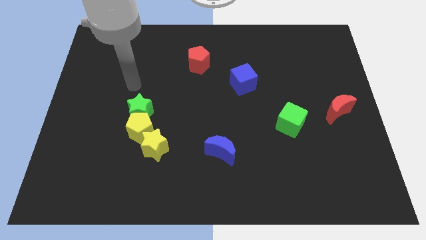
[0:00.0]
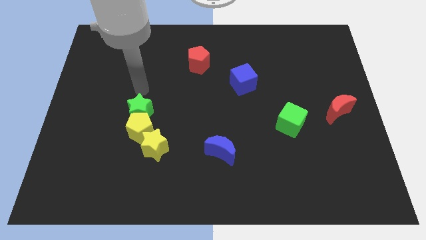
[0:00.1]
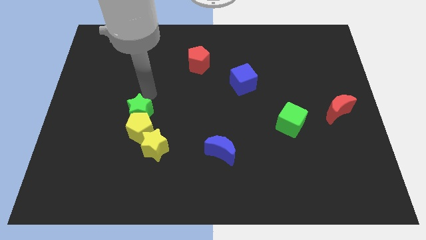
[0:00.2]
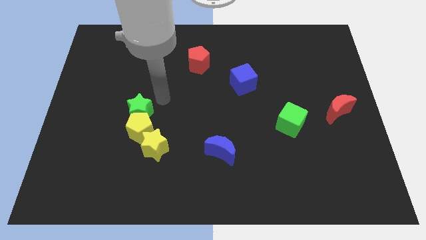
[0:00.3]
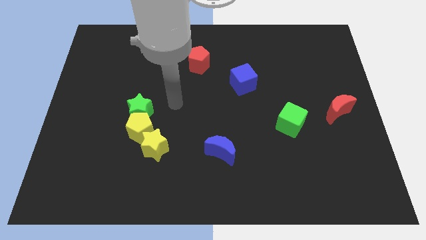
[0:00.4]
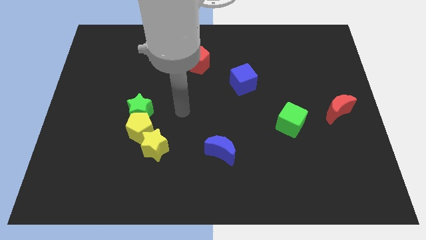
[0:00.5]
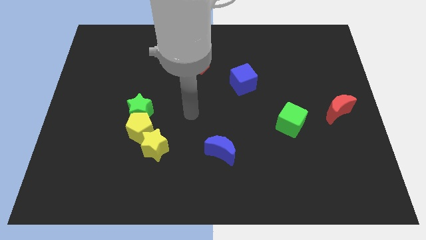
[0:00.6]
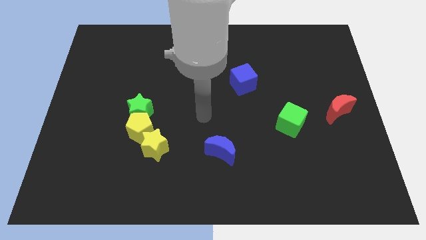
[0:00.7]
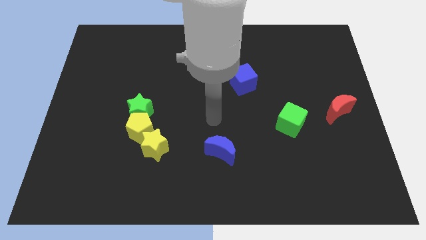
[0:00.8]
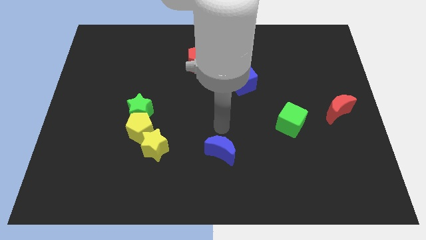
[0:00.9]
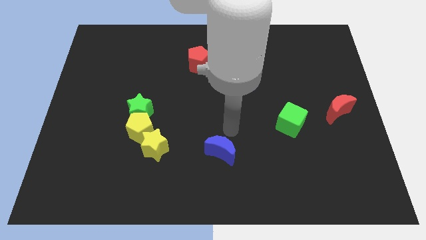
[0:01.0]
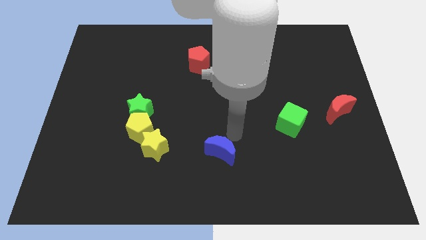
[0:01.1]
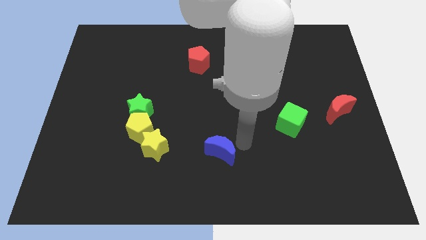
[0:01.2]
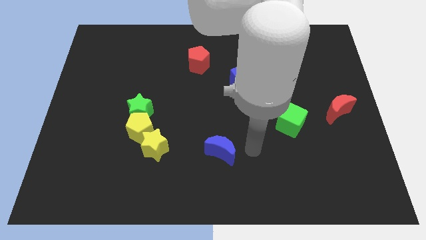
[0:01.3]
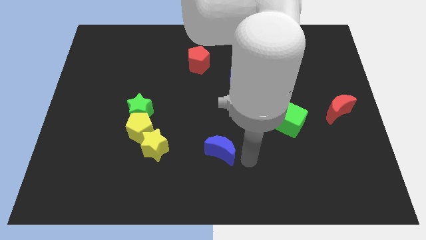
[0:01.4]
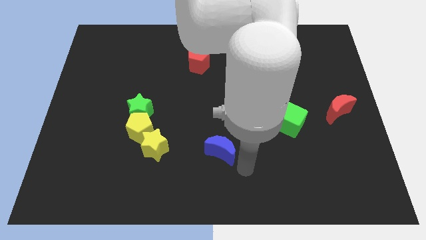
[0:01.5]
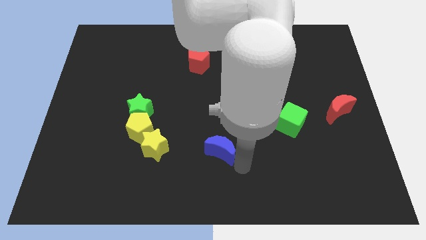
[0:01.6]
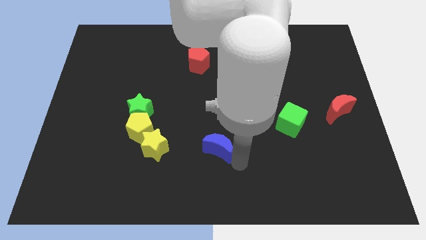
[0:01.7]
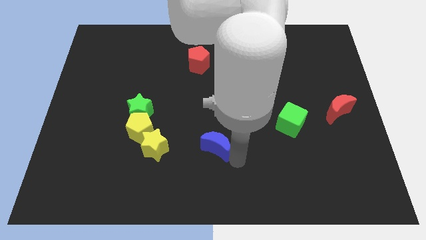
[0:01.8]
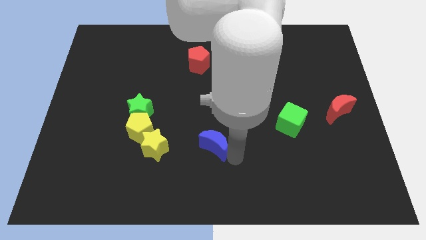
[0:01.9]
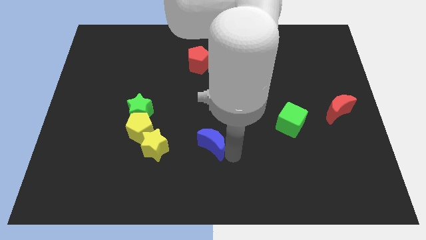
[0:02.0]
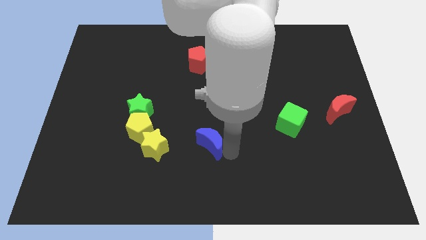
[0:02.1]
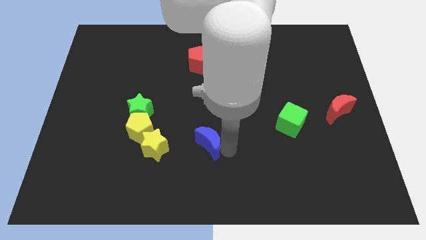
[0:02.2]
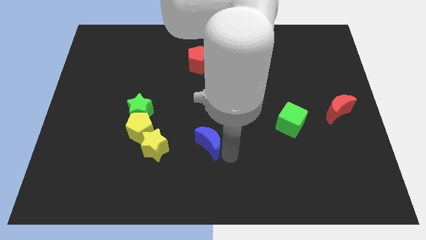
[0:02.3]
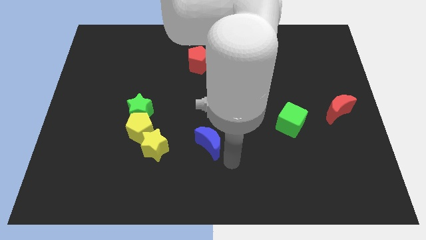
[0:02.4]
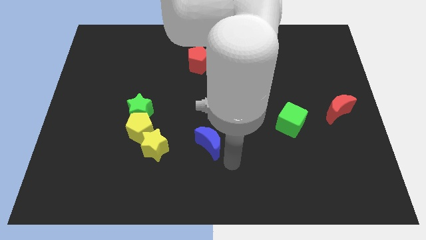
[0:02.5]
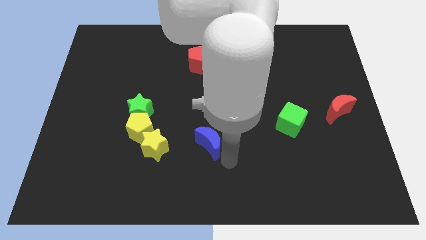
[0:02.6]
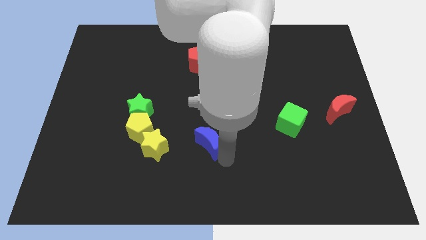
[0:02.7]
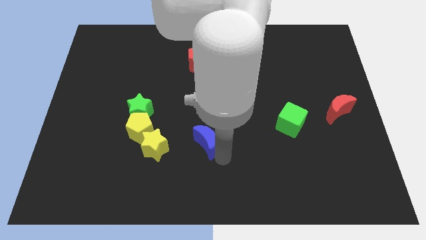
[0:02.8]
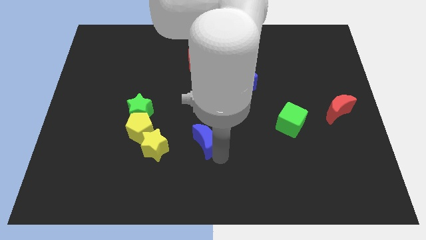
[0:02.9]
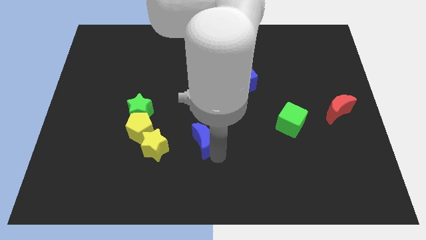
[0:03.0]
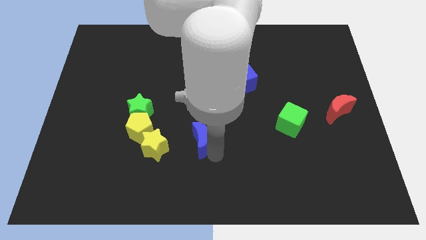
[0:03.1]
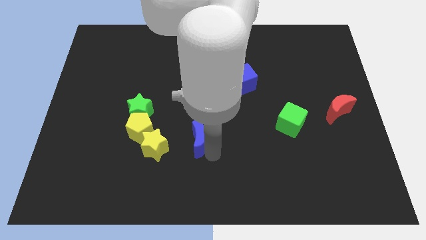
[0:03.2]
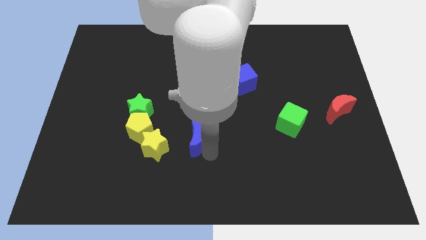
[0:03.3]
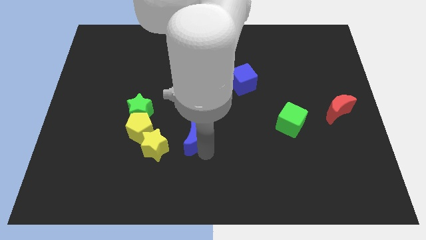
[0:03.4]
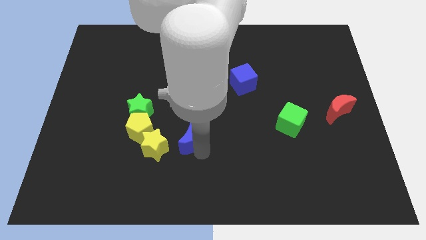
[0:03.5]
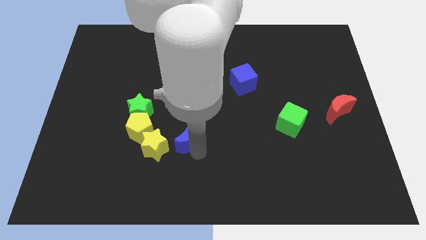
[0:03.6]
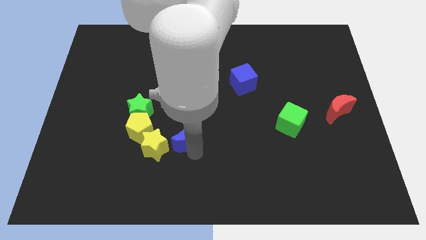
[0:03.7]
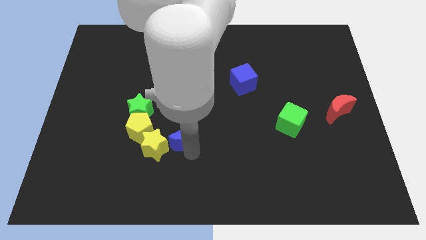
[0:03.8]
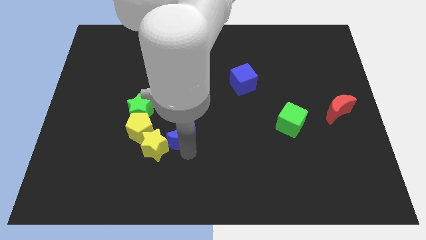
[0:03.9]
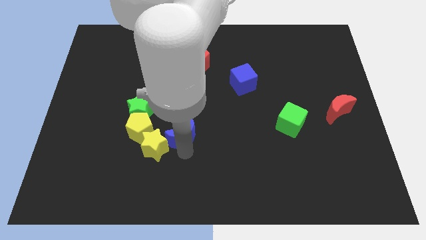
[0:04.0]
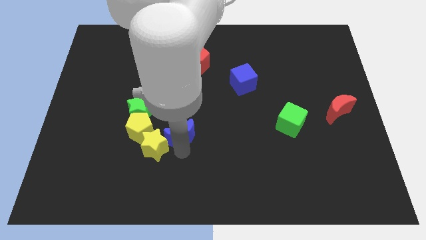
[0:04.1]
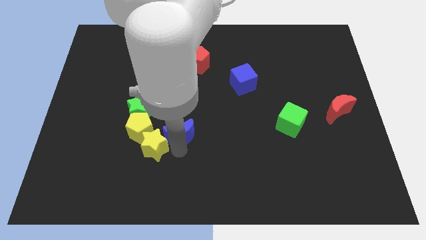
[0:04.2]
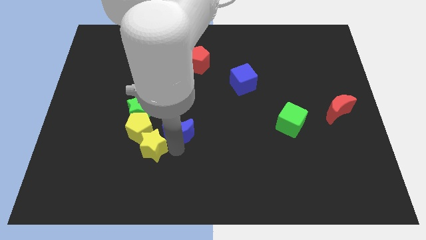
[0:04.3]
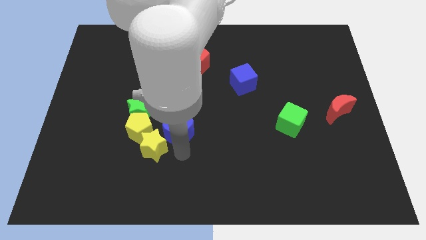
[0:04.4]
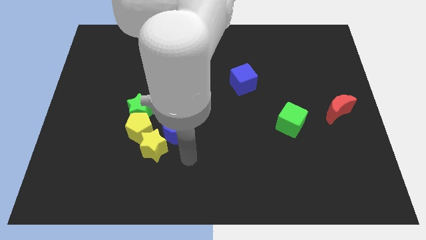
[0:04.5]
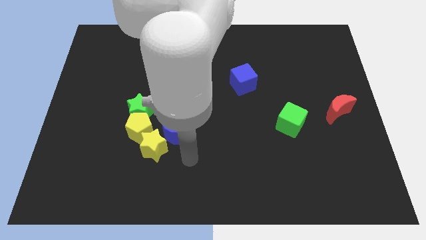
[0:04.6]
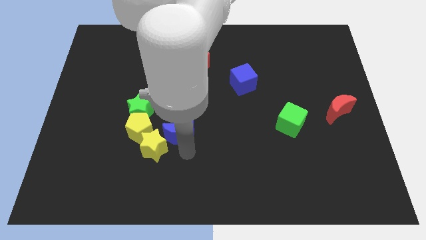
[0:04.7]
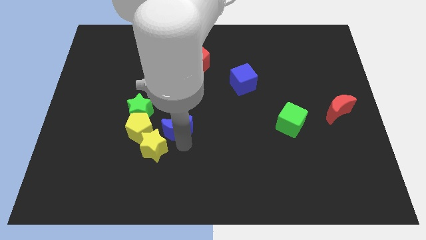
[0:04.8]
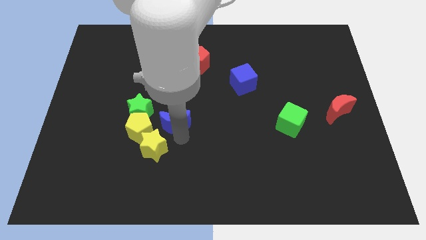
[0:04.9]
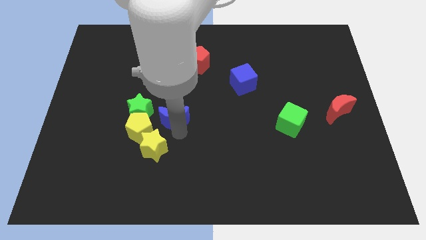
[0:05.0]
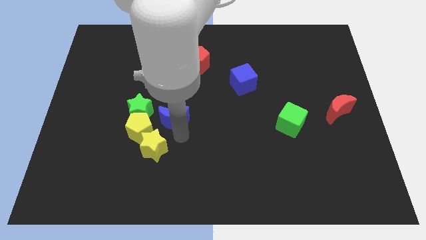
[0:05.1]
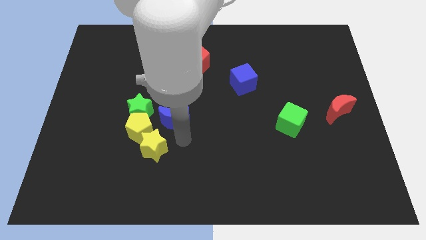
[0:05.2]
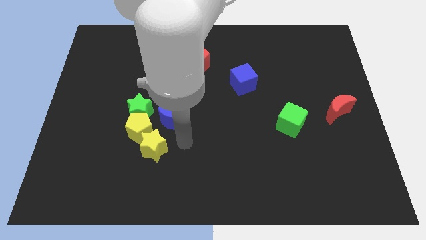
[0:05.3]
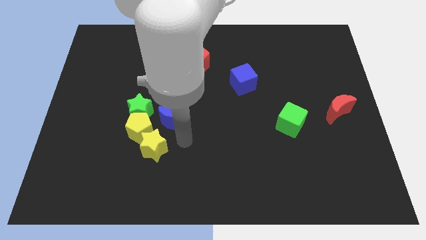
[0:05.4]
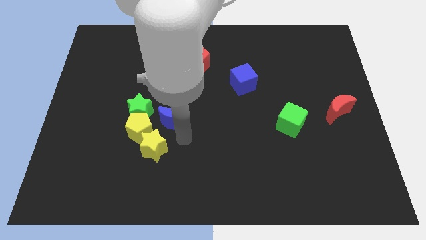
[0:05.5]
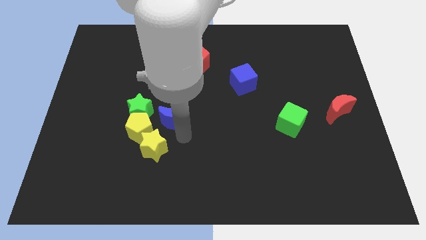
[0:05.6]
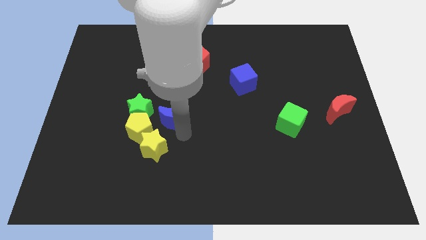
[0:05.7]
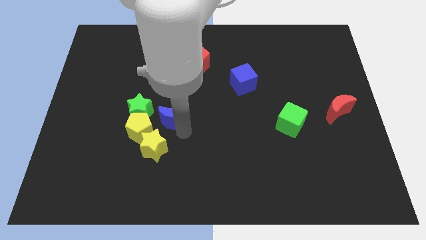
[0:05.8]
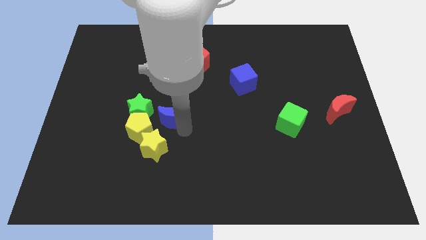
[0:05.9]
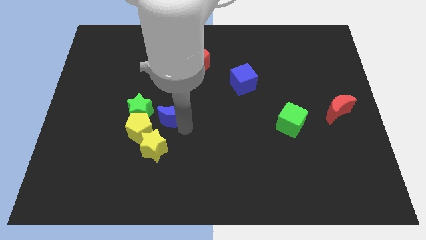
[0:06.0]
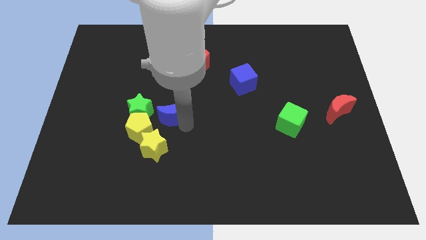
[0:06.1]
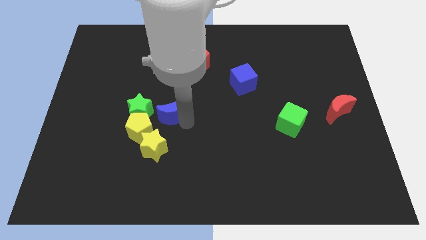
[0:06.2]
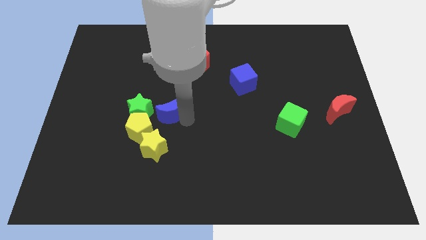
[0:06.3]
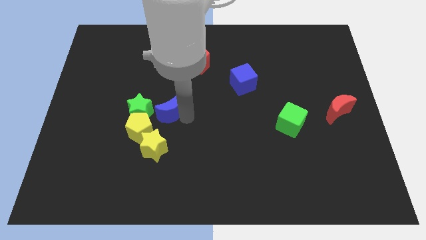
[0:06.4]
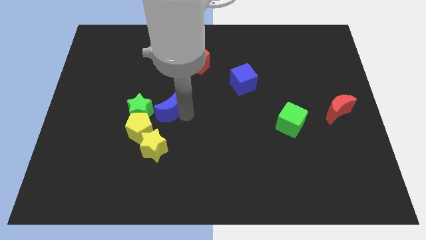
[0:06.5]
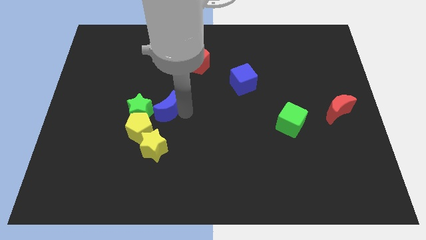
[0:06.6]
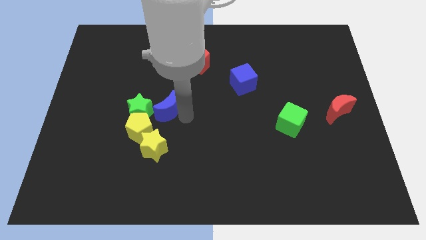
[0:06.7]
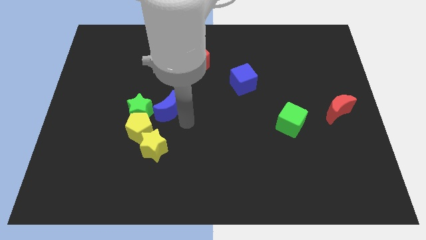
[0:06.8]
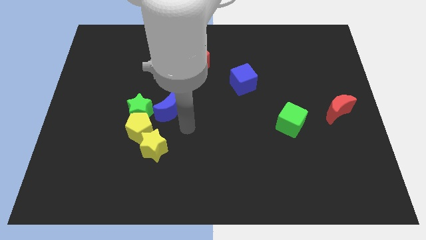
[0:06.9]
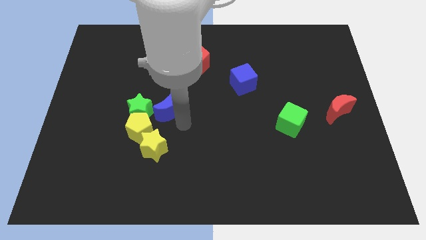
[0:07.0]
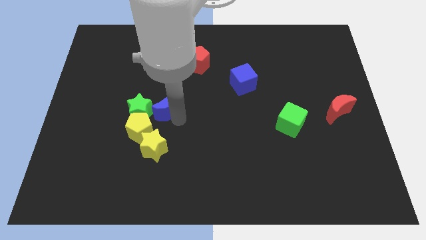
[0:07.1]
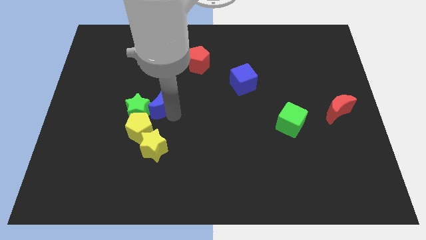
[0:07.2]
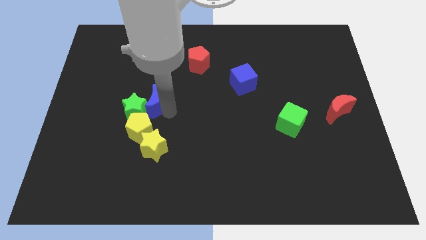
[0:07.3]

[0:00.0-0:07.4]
move the blue moon upwards and then to the left

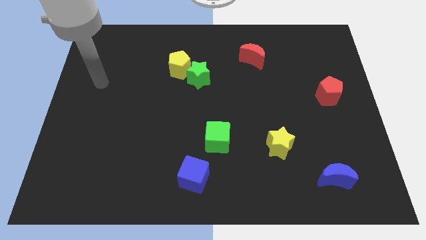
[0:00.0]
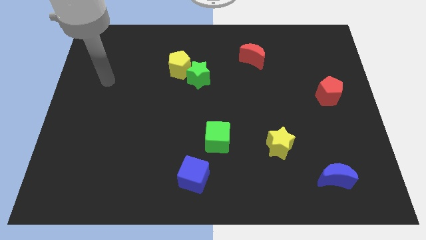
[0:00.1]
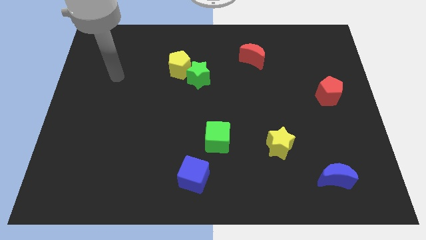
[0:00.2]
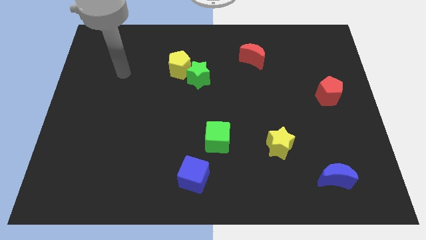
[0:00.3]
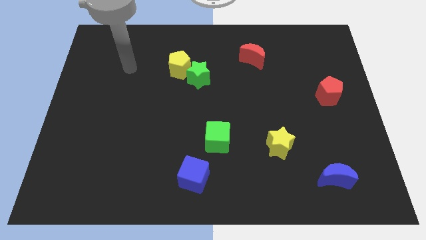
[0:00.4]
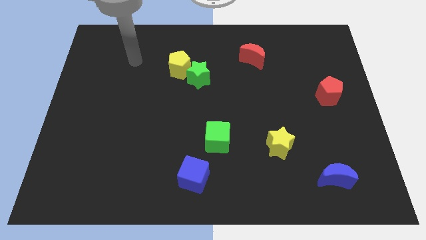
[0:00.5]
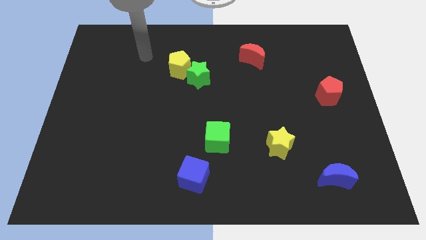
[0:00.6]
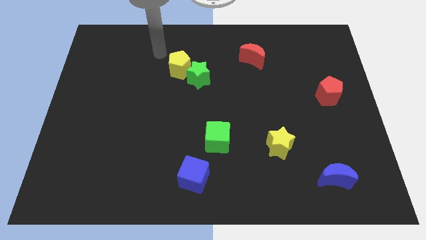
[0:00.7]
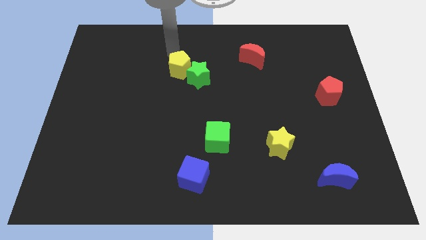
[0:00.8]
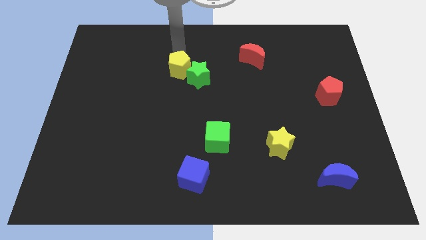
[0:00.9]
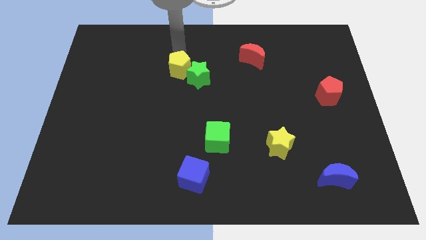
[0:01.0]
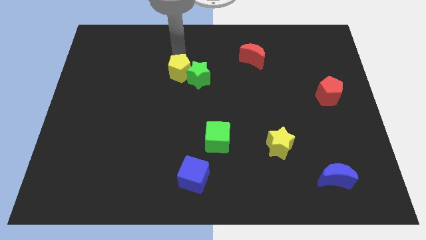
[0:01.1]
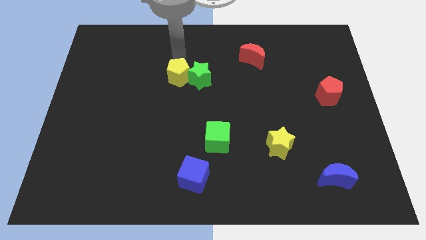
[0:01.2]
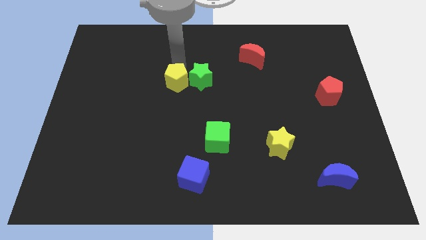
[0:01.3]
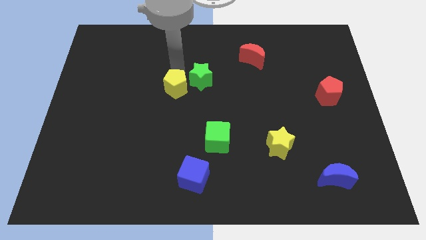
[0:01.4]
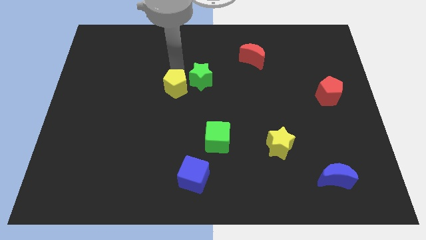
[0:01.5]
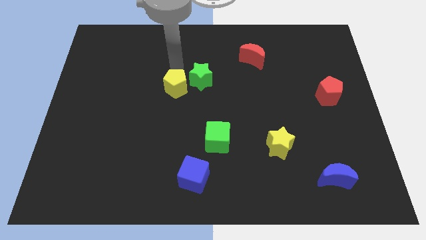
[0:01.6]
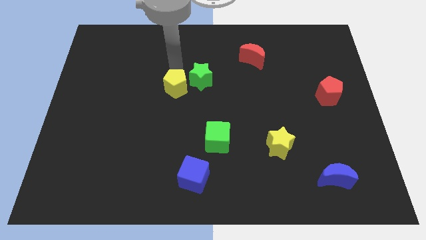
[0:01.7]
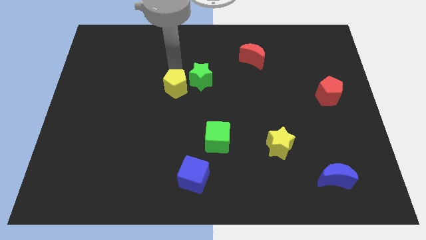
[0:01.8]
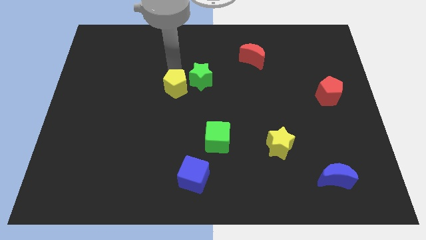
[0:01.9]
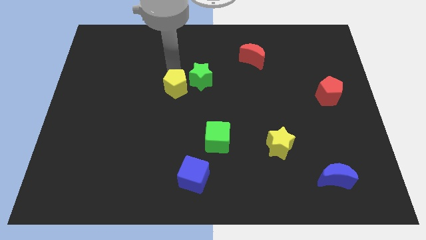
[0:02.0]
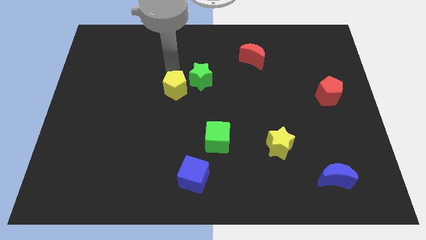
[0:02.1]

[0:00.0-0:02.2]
slightly slide the yellow pentagon down
